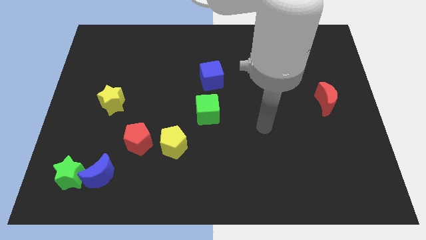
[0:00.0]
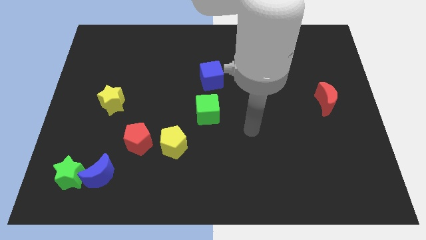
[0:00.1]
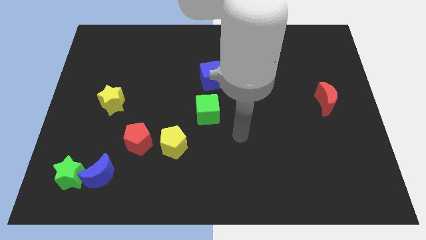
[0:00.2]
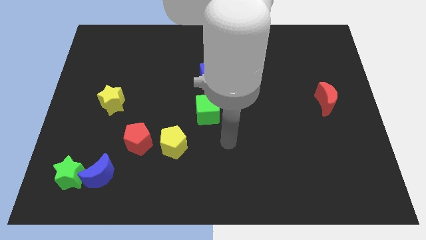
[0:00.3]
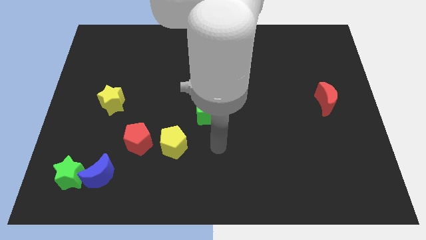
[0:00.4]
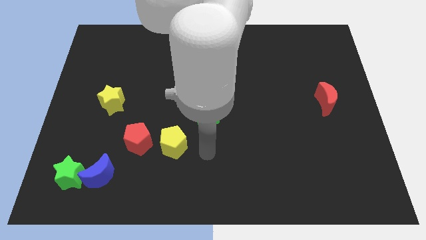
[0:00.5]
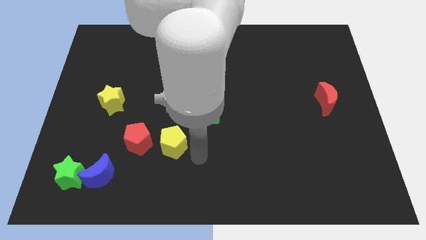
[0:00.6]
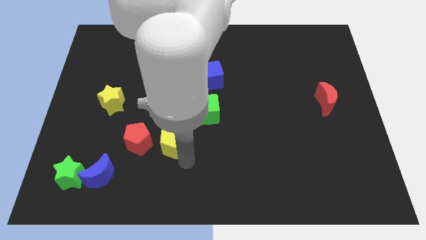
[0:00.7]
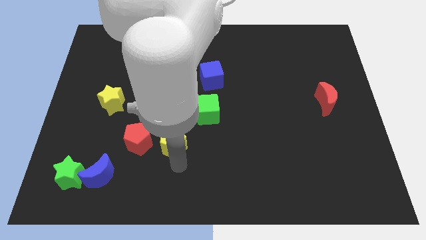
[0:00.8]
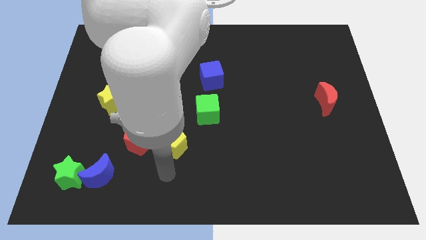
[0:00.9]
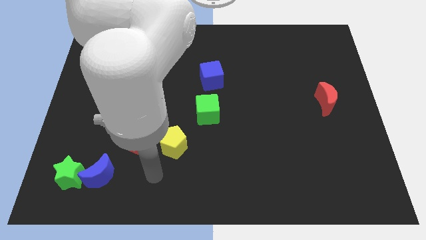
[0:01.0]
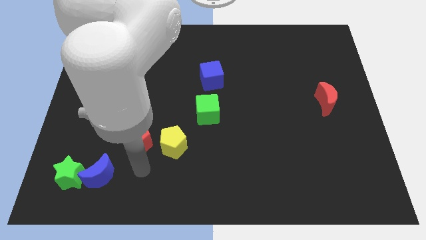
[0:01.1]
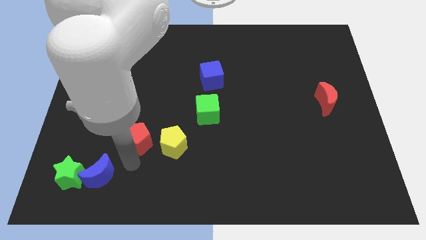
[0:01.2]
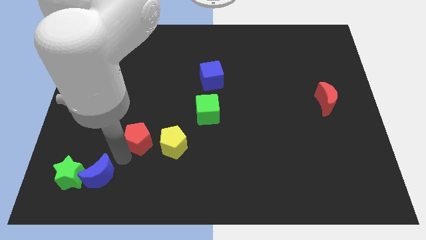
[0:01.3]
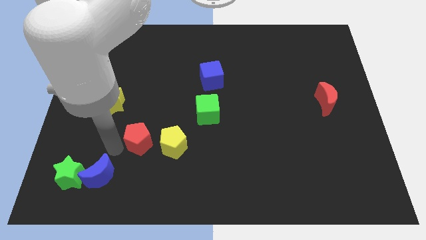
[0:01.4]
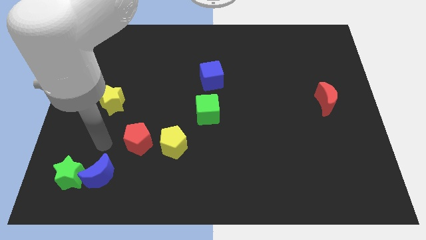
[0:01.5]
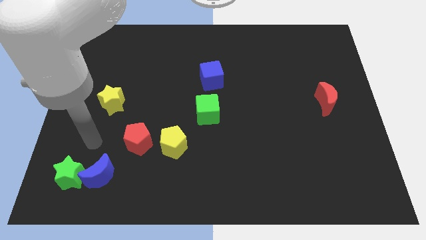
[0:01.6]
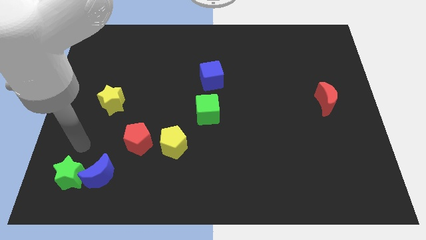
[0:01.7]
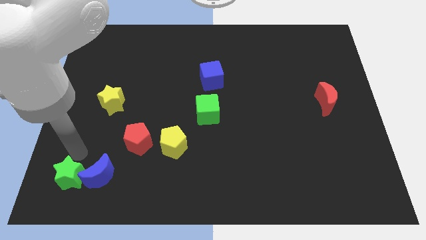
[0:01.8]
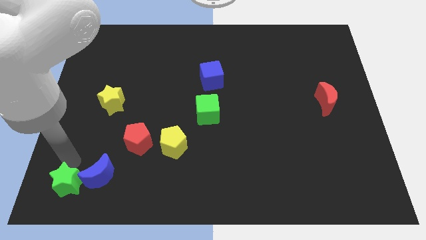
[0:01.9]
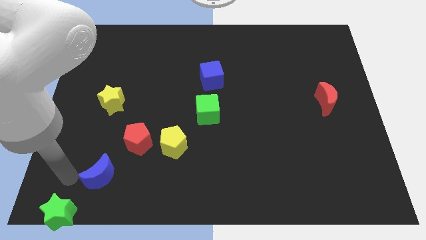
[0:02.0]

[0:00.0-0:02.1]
pull the blue moon apart from the green star

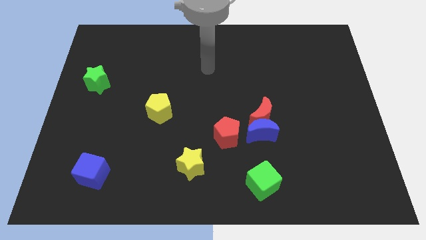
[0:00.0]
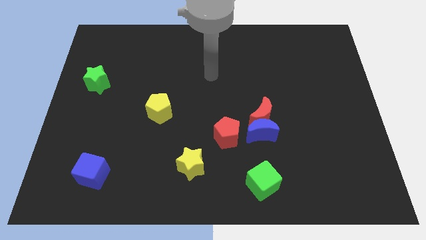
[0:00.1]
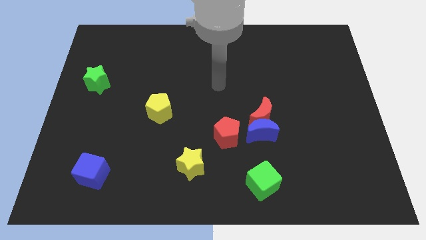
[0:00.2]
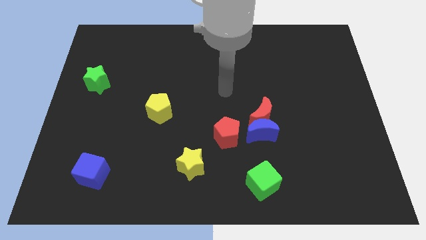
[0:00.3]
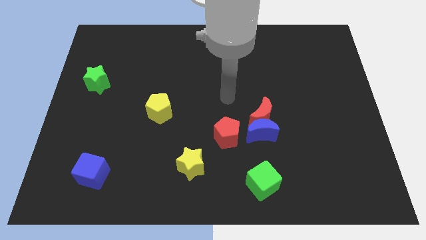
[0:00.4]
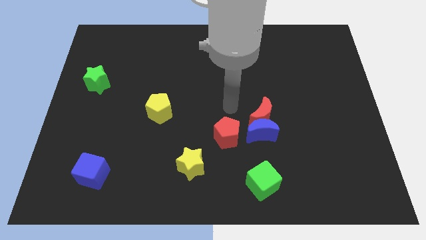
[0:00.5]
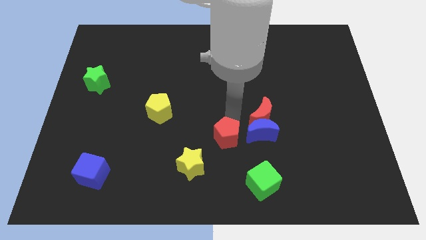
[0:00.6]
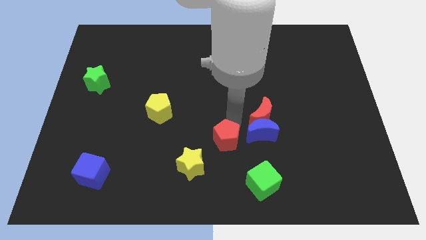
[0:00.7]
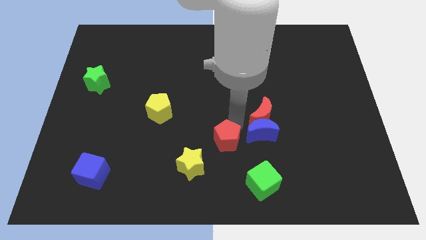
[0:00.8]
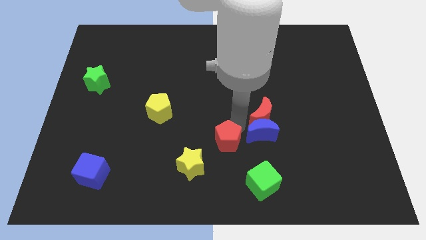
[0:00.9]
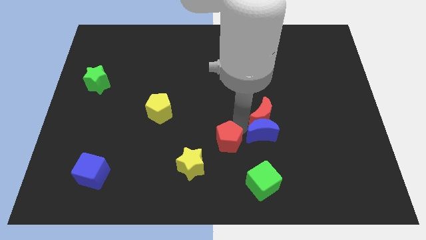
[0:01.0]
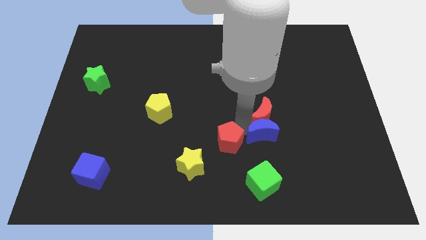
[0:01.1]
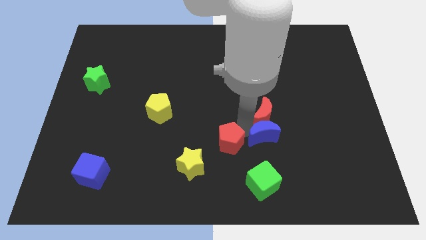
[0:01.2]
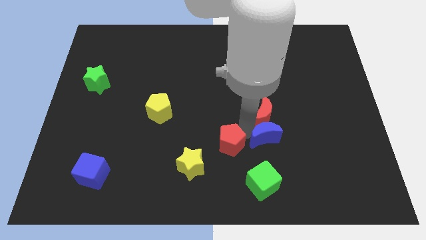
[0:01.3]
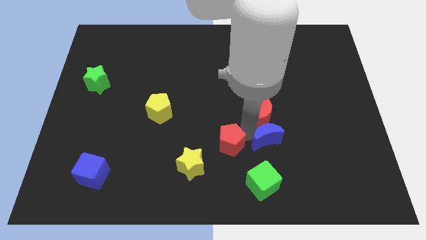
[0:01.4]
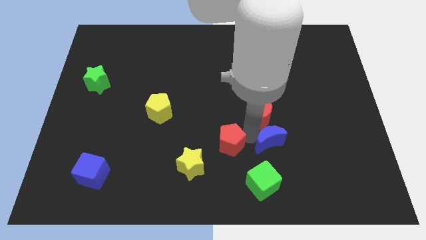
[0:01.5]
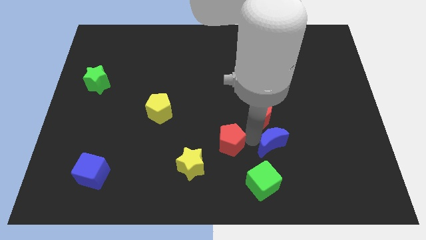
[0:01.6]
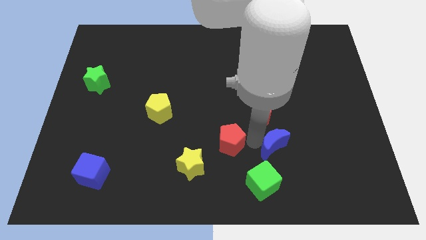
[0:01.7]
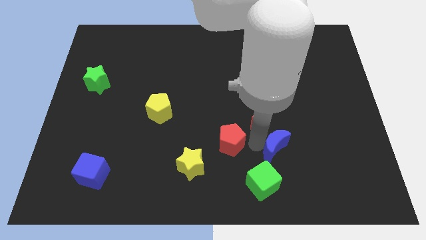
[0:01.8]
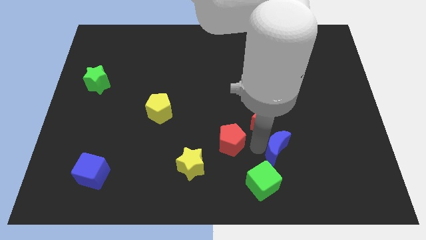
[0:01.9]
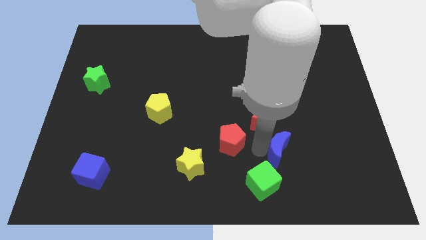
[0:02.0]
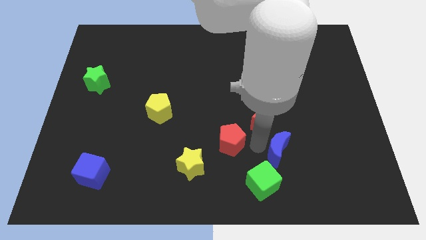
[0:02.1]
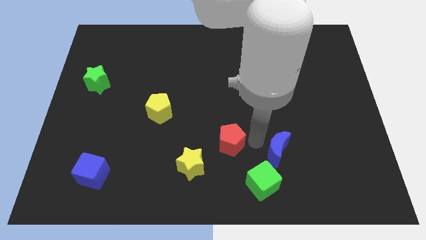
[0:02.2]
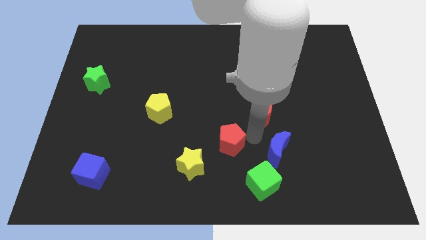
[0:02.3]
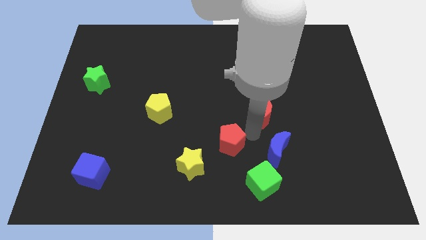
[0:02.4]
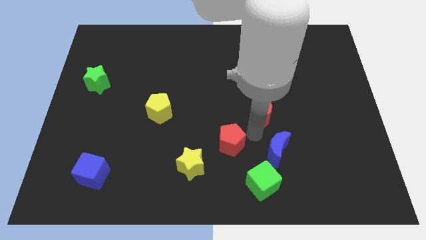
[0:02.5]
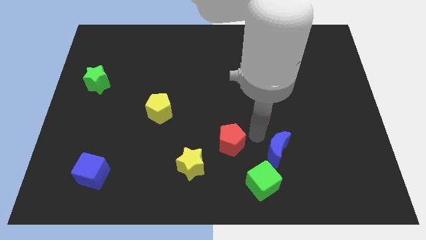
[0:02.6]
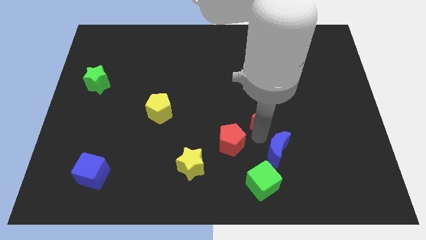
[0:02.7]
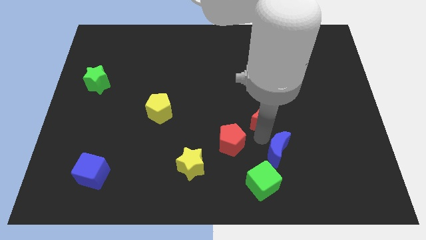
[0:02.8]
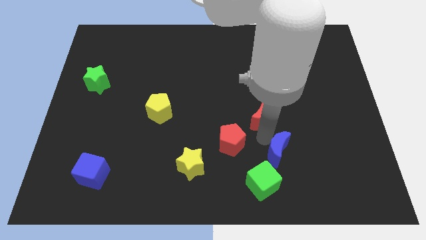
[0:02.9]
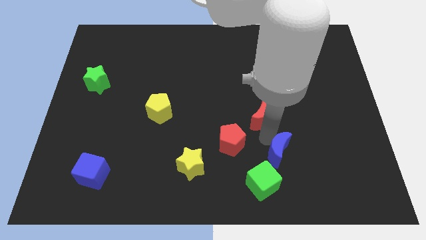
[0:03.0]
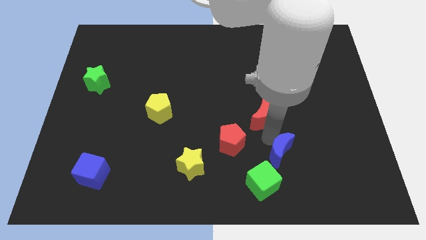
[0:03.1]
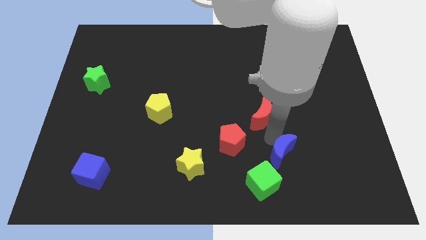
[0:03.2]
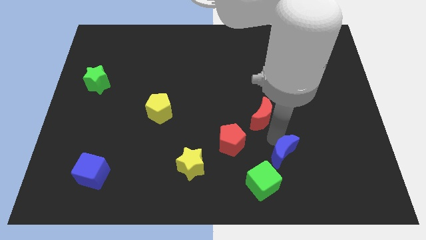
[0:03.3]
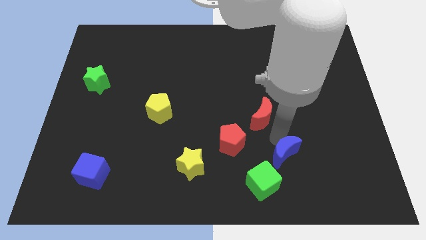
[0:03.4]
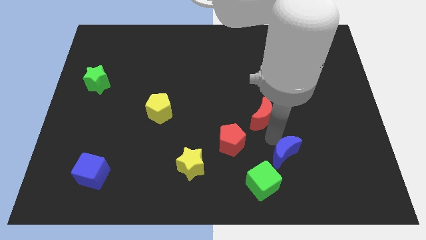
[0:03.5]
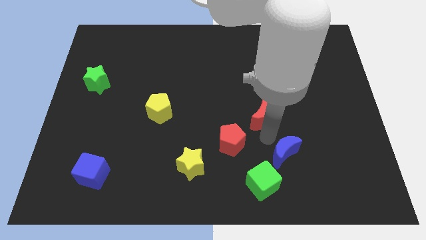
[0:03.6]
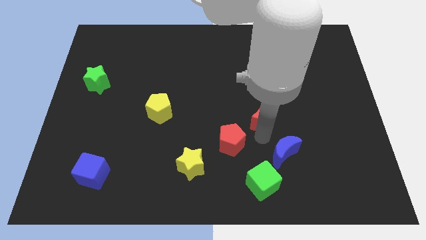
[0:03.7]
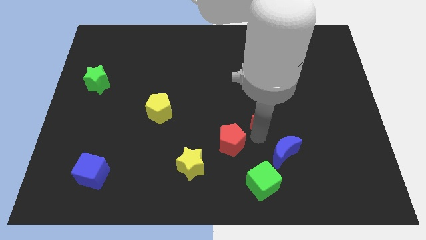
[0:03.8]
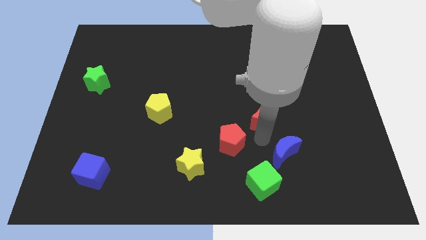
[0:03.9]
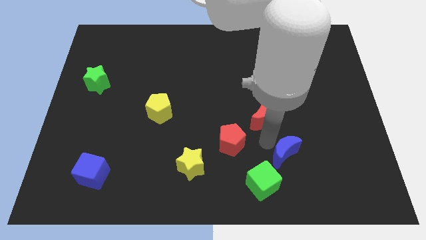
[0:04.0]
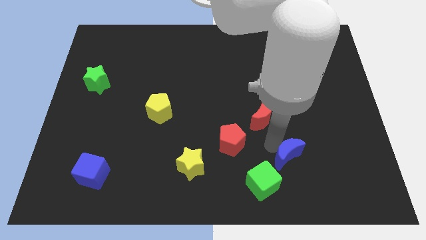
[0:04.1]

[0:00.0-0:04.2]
pull the blue moon apart from the red moon and red pentagon

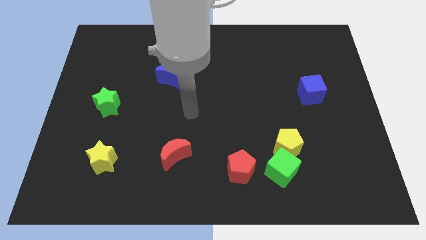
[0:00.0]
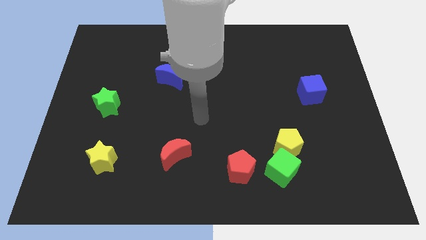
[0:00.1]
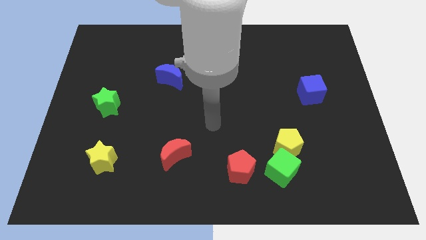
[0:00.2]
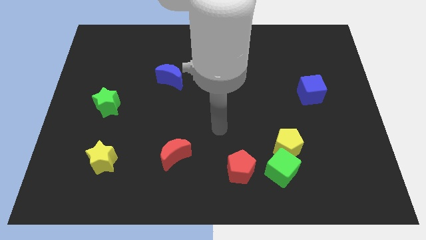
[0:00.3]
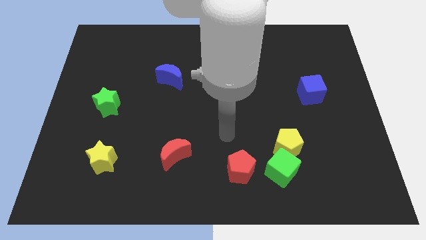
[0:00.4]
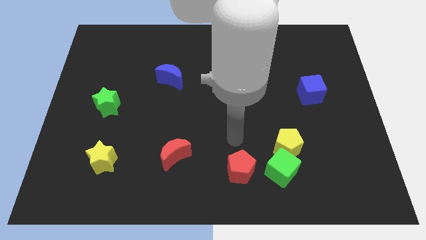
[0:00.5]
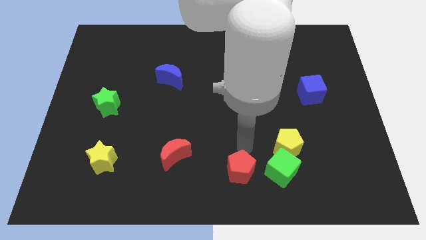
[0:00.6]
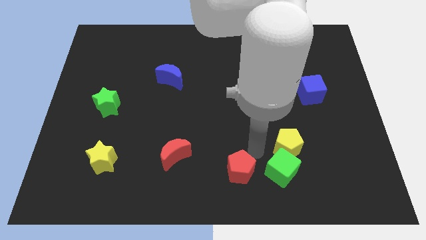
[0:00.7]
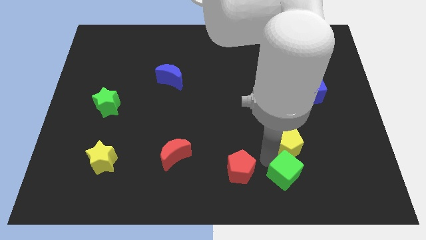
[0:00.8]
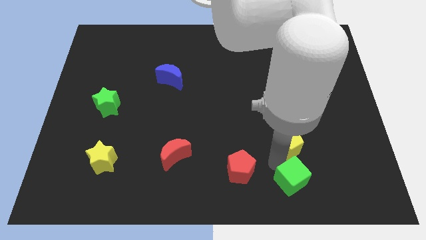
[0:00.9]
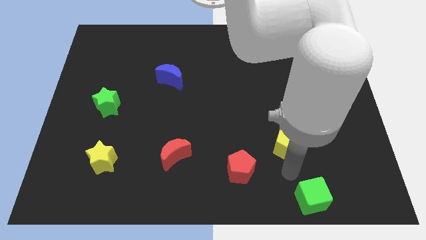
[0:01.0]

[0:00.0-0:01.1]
separate the yellow pentagon from the green cube

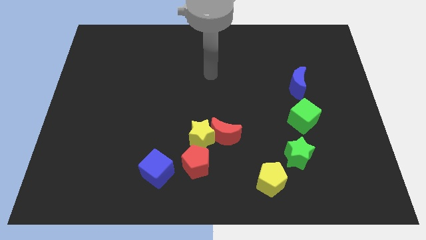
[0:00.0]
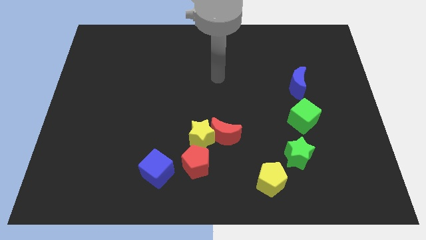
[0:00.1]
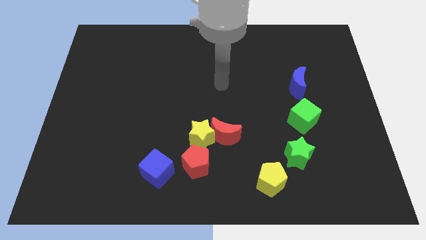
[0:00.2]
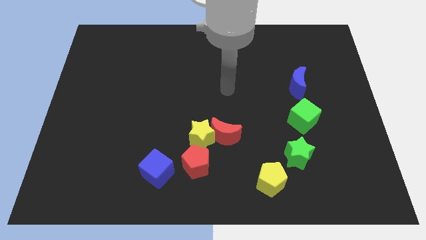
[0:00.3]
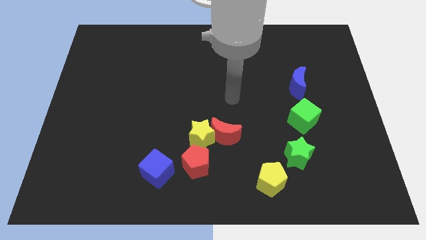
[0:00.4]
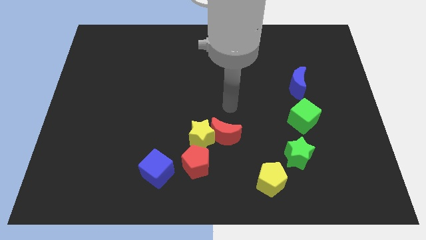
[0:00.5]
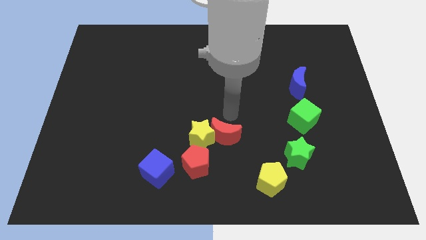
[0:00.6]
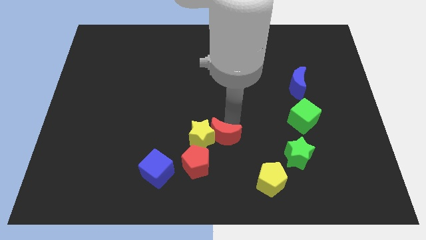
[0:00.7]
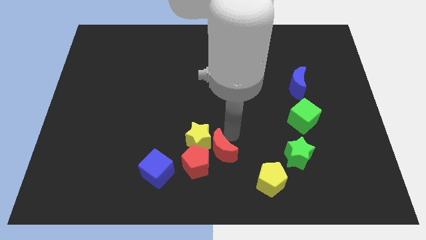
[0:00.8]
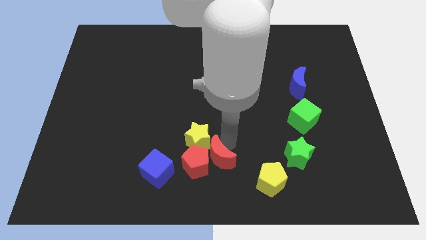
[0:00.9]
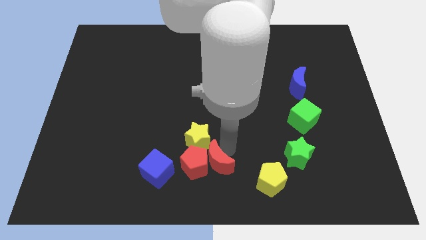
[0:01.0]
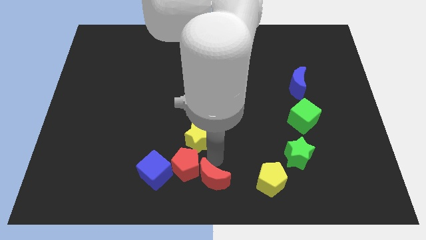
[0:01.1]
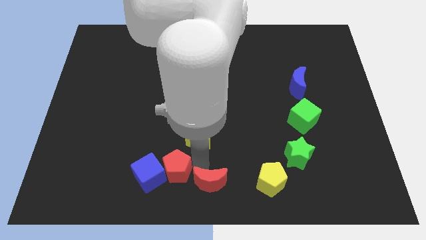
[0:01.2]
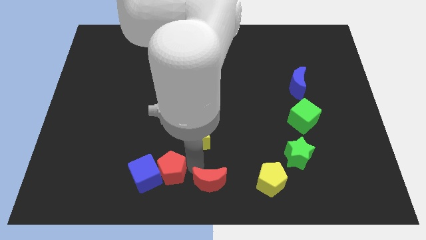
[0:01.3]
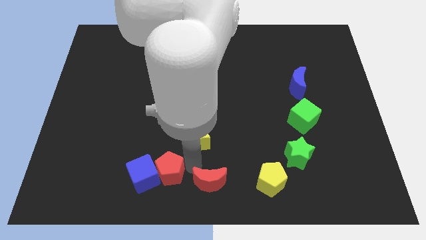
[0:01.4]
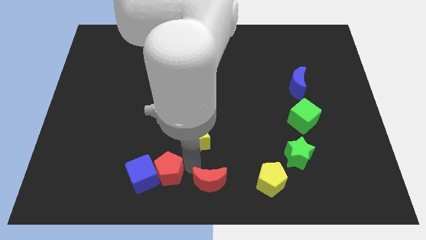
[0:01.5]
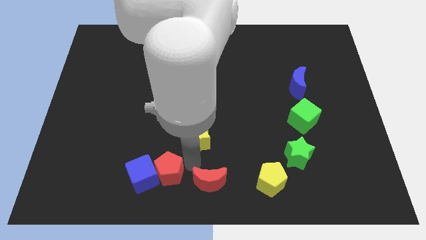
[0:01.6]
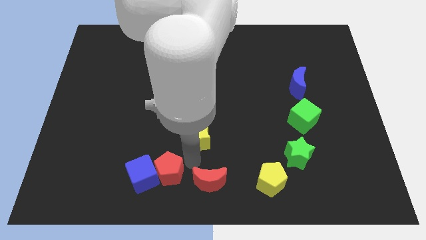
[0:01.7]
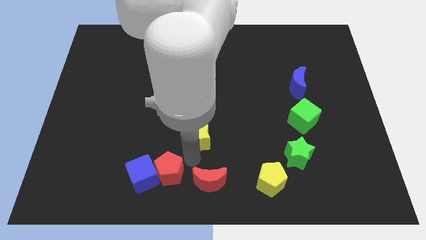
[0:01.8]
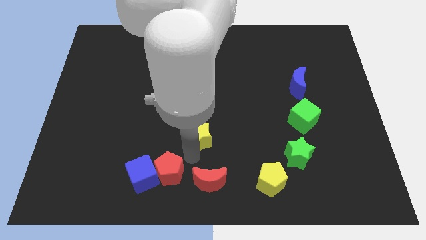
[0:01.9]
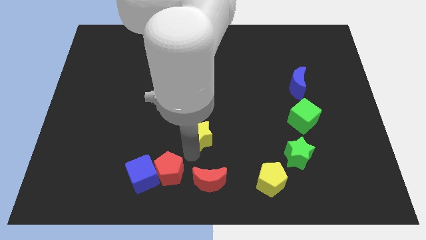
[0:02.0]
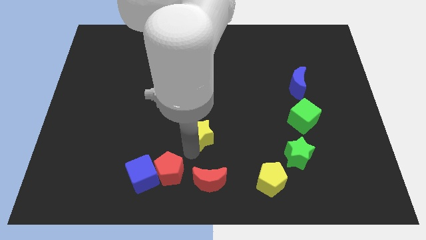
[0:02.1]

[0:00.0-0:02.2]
separate the yellow star from the red moon and red pentagon
